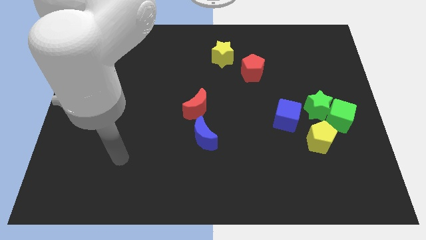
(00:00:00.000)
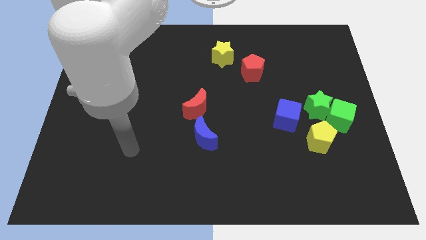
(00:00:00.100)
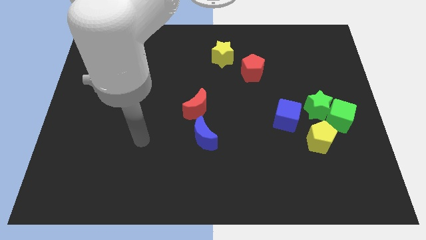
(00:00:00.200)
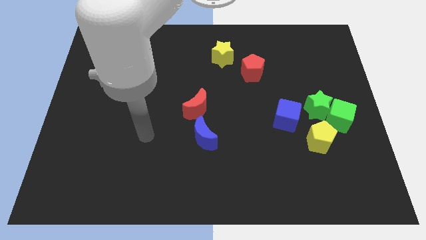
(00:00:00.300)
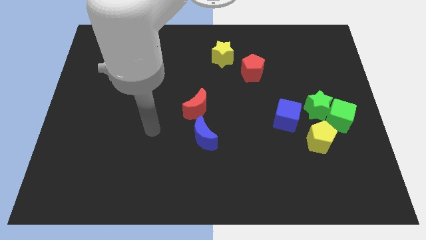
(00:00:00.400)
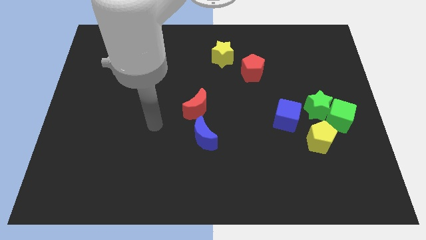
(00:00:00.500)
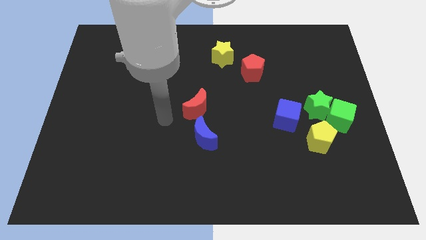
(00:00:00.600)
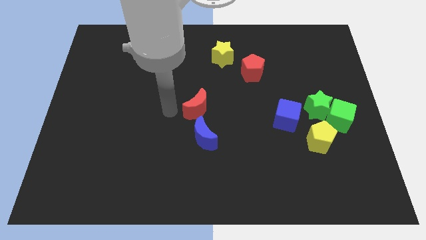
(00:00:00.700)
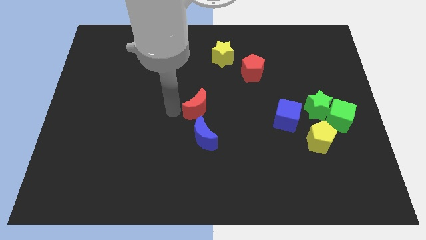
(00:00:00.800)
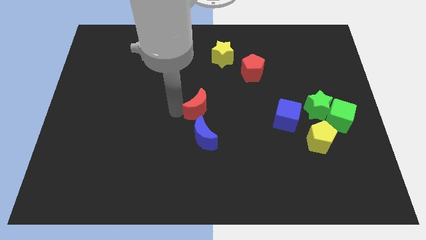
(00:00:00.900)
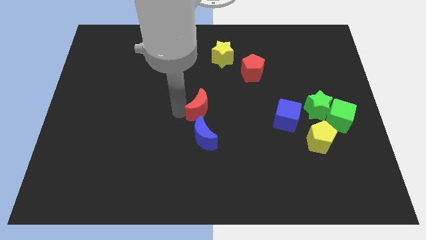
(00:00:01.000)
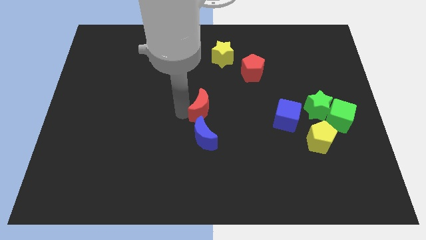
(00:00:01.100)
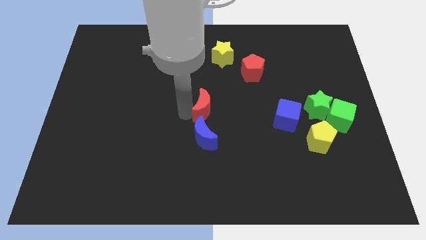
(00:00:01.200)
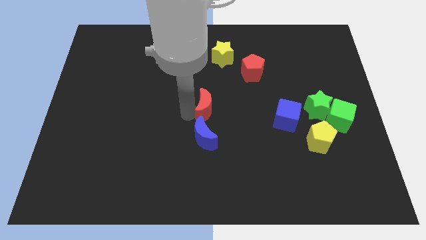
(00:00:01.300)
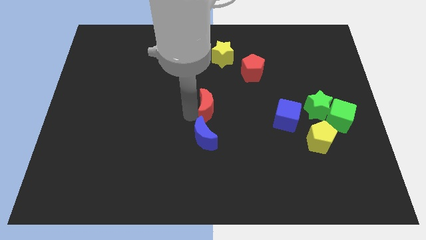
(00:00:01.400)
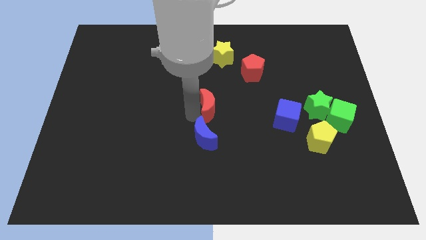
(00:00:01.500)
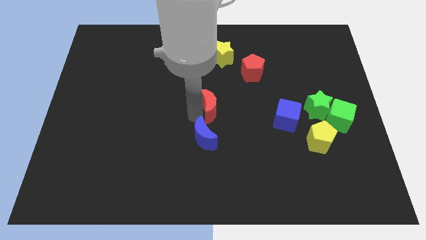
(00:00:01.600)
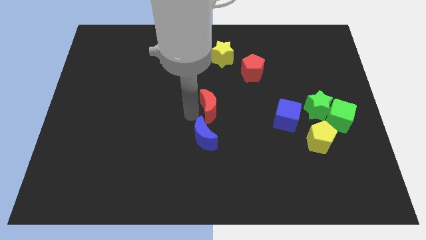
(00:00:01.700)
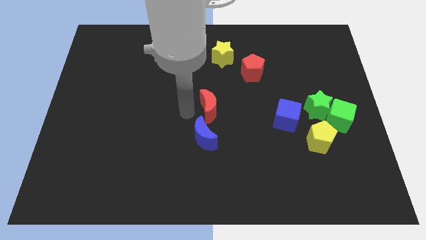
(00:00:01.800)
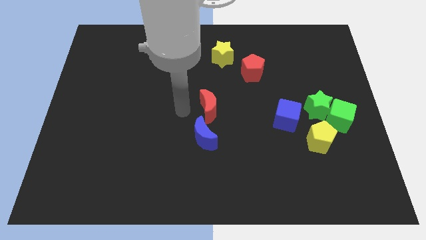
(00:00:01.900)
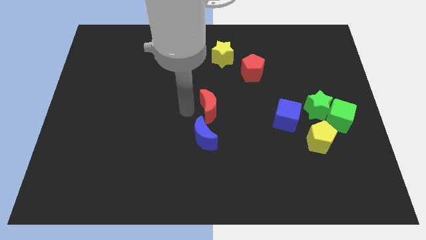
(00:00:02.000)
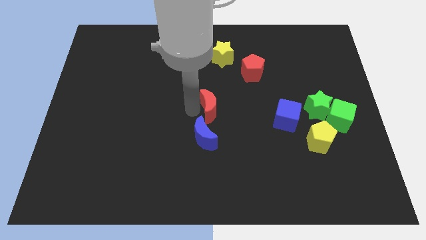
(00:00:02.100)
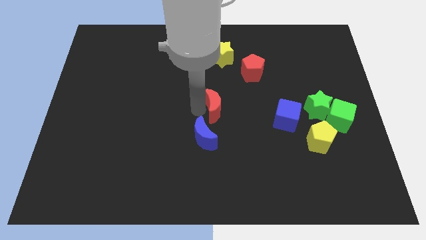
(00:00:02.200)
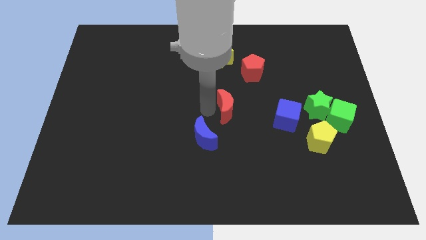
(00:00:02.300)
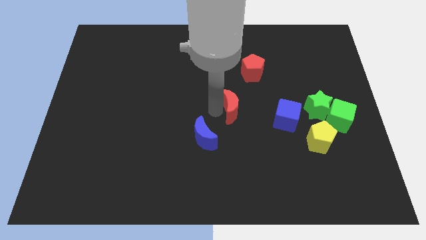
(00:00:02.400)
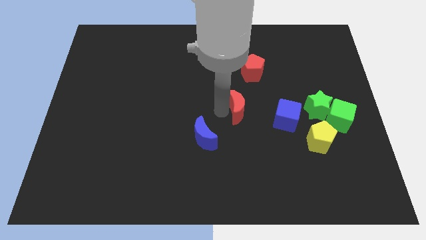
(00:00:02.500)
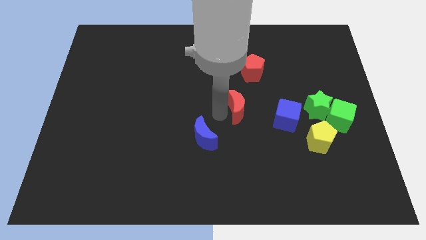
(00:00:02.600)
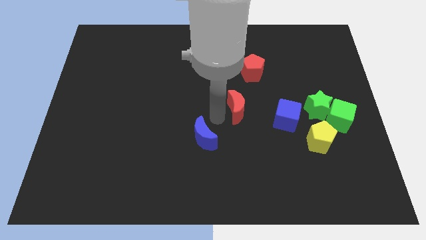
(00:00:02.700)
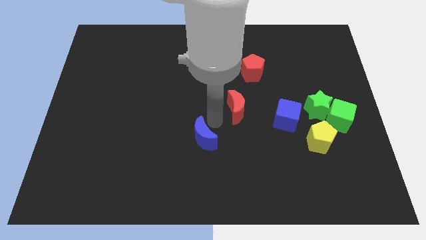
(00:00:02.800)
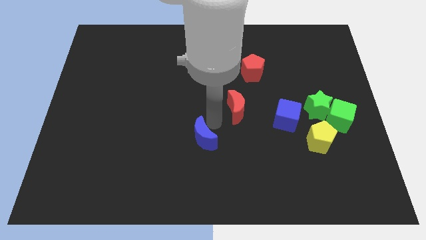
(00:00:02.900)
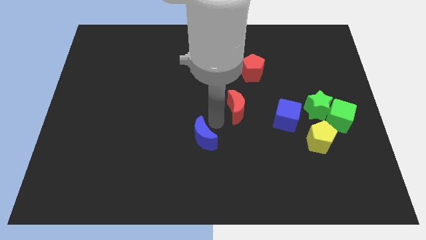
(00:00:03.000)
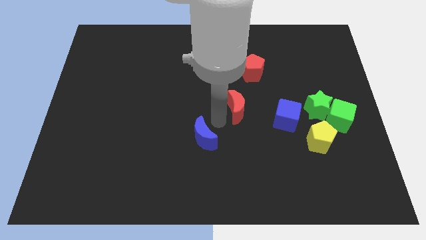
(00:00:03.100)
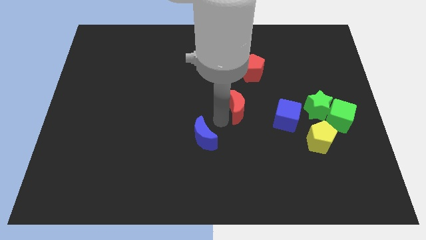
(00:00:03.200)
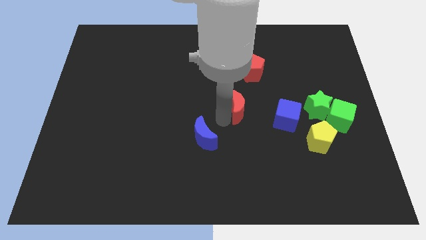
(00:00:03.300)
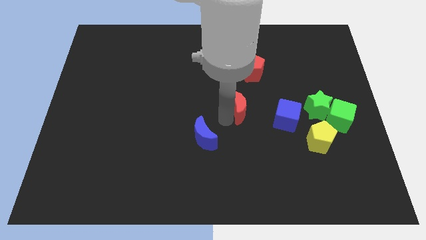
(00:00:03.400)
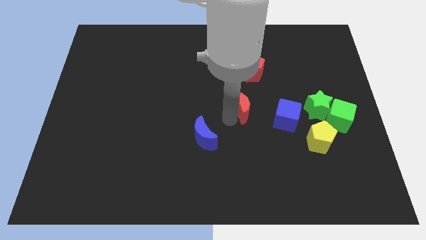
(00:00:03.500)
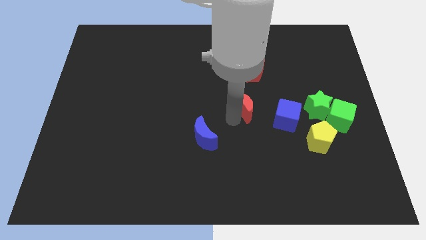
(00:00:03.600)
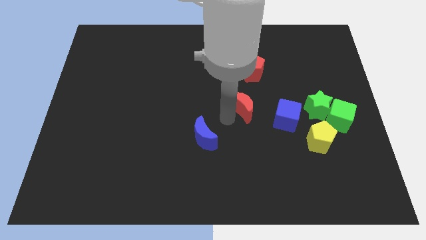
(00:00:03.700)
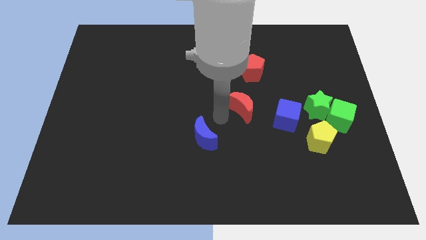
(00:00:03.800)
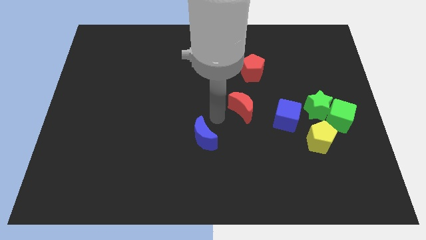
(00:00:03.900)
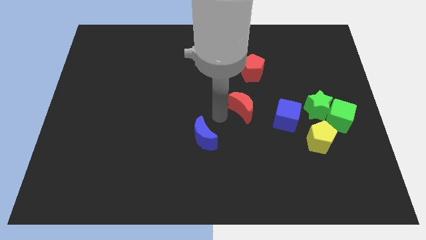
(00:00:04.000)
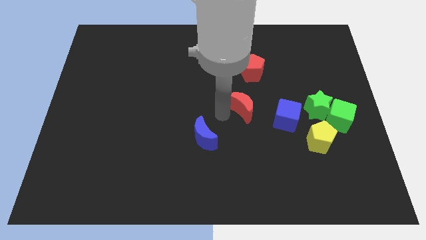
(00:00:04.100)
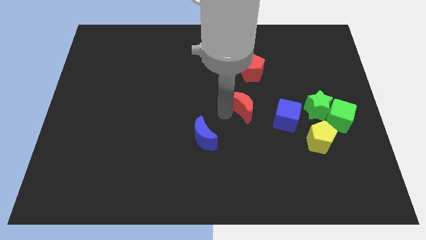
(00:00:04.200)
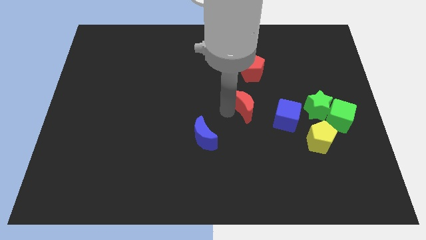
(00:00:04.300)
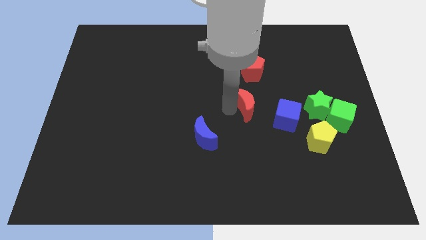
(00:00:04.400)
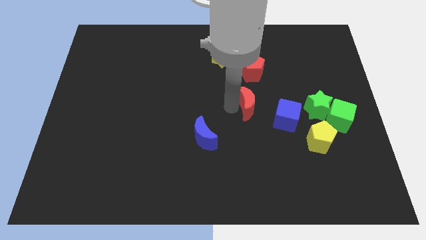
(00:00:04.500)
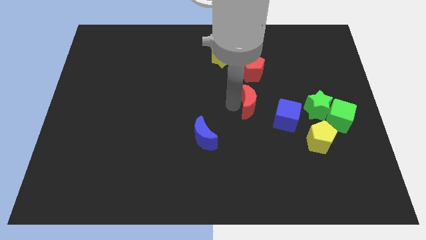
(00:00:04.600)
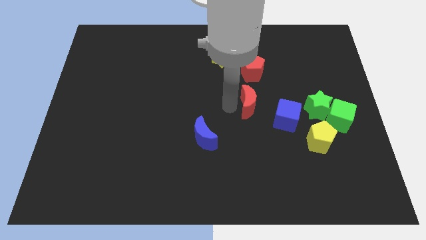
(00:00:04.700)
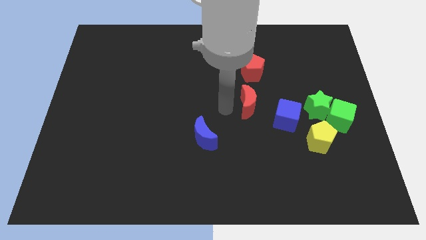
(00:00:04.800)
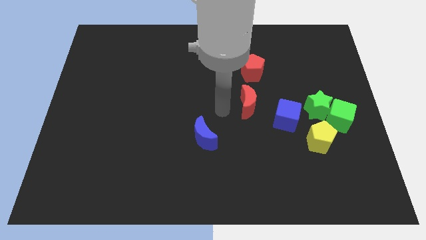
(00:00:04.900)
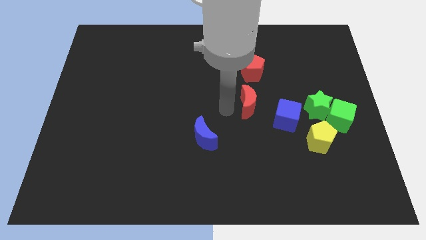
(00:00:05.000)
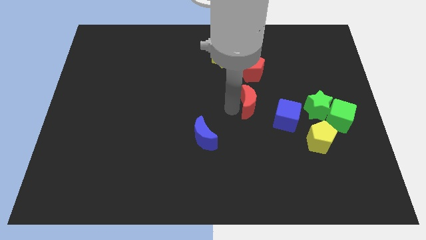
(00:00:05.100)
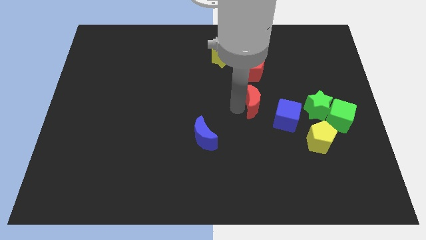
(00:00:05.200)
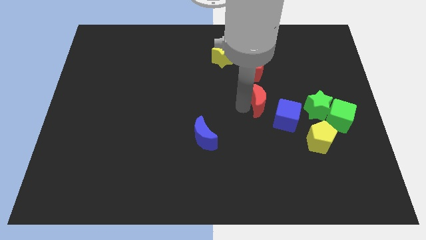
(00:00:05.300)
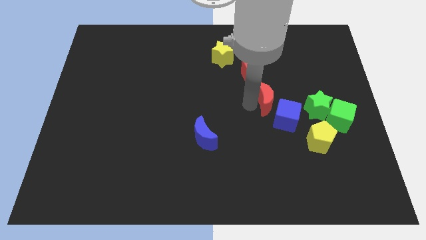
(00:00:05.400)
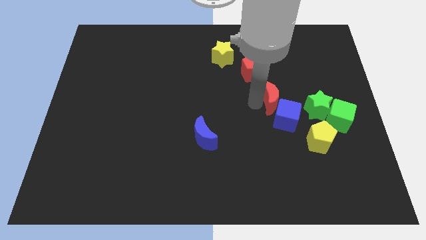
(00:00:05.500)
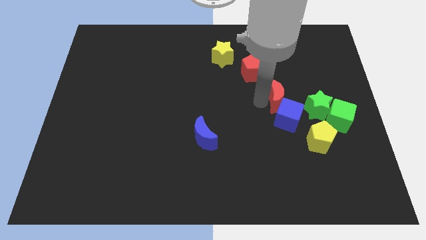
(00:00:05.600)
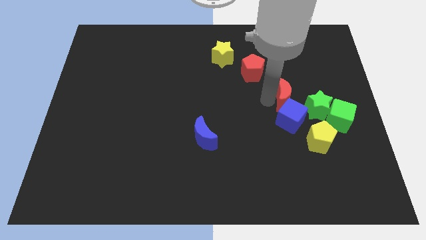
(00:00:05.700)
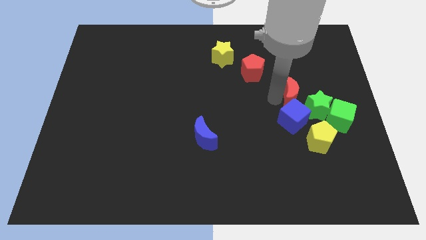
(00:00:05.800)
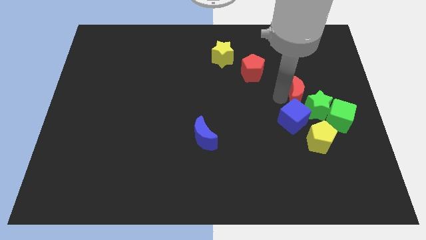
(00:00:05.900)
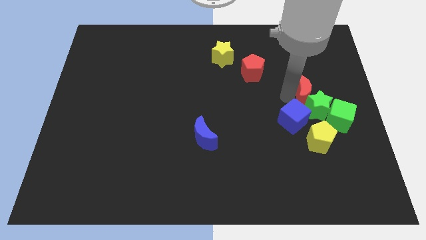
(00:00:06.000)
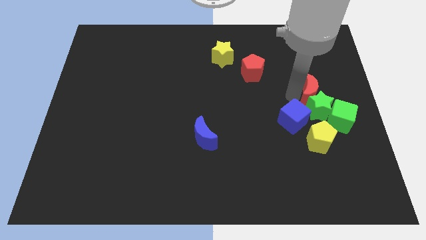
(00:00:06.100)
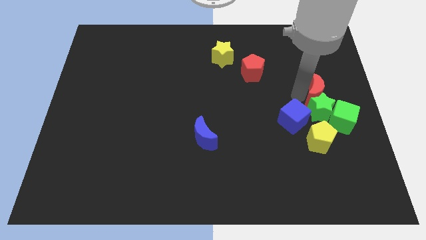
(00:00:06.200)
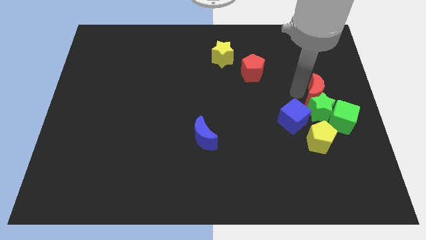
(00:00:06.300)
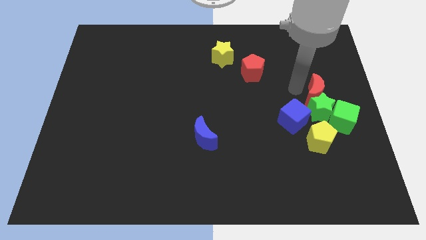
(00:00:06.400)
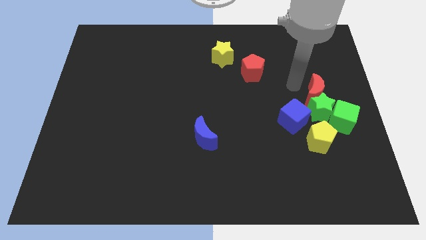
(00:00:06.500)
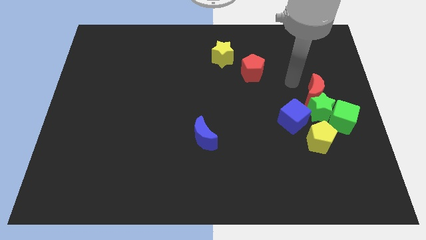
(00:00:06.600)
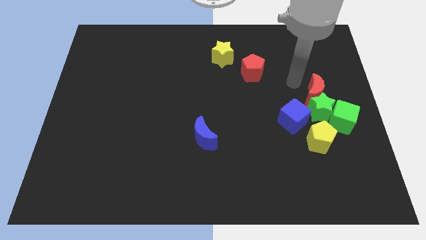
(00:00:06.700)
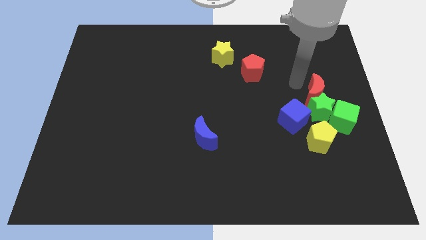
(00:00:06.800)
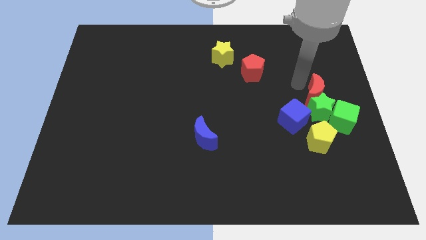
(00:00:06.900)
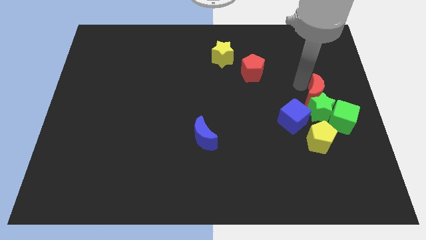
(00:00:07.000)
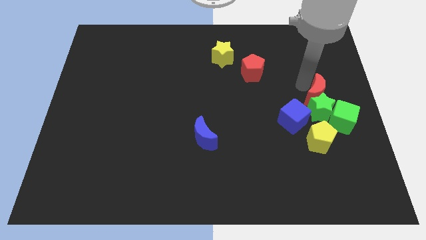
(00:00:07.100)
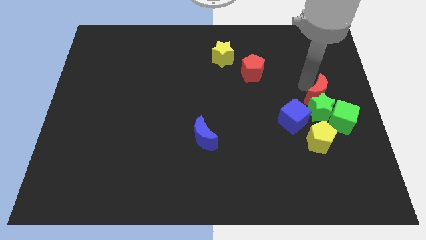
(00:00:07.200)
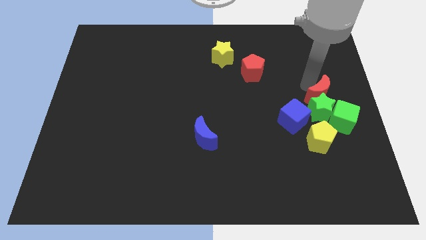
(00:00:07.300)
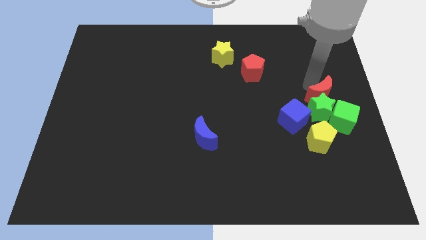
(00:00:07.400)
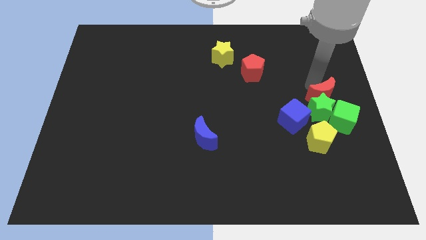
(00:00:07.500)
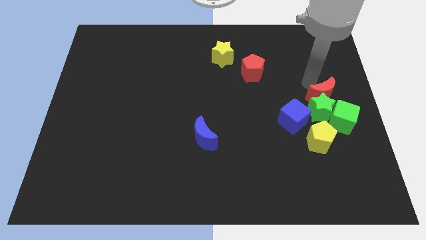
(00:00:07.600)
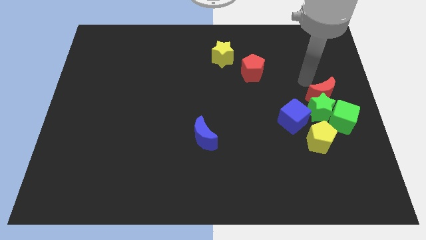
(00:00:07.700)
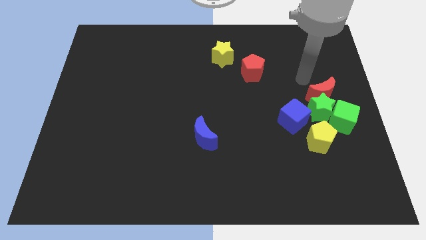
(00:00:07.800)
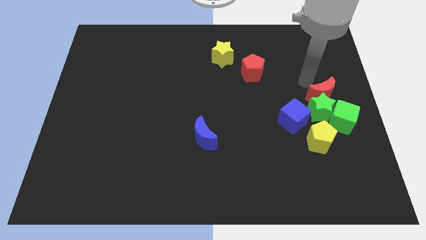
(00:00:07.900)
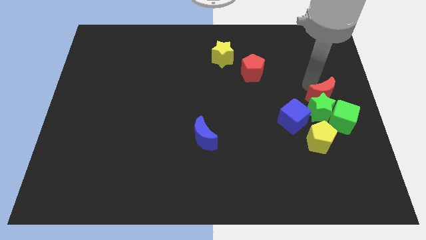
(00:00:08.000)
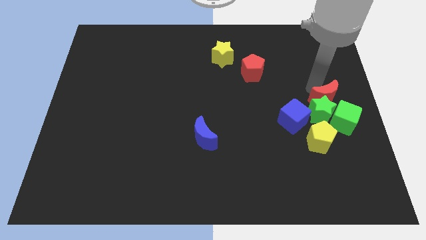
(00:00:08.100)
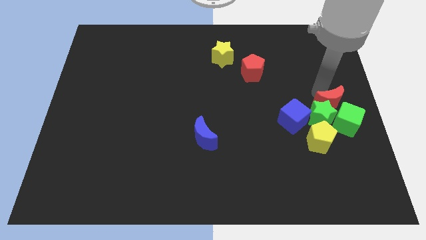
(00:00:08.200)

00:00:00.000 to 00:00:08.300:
push the red moon close to the green cube
